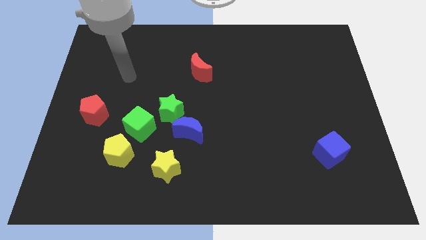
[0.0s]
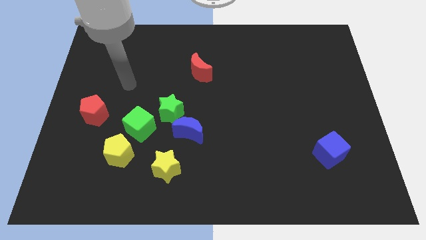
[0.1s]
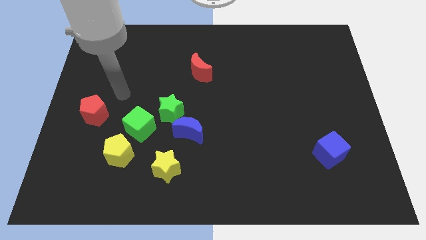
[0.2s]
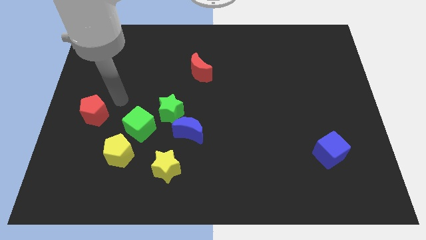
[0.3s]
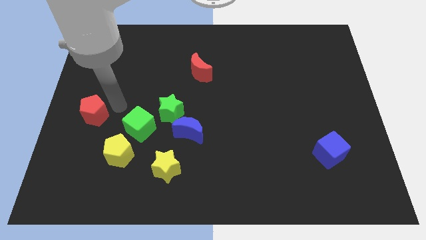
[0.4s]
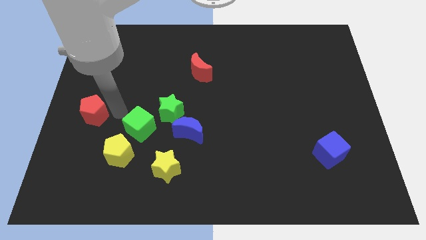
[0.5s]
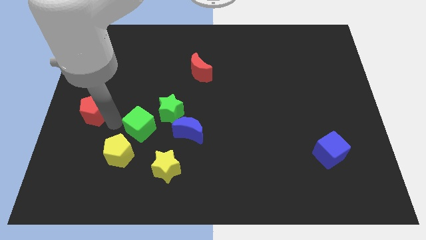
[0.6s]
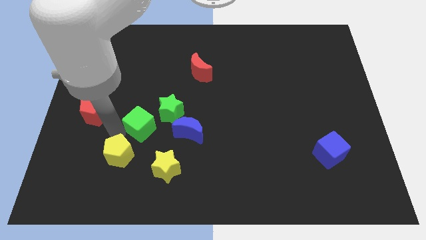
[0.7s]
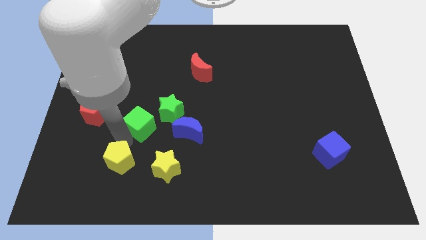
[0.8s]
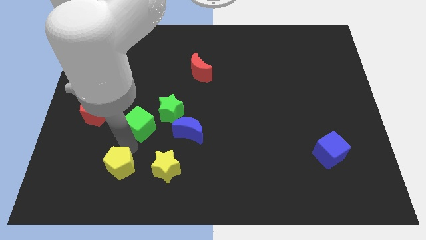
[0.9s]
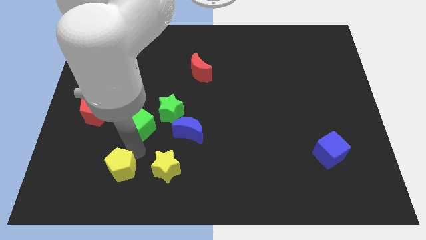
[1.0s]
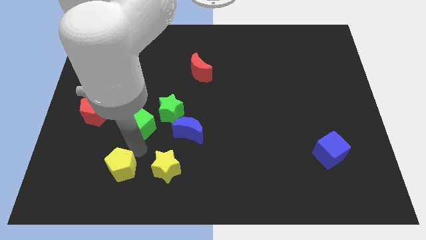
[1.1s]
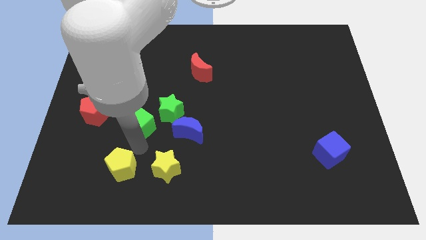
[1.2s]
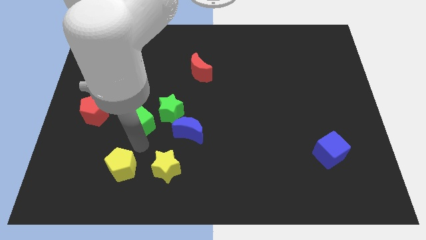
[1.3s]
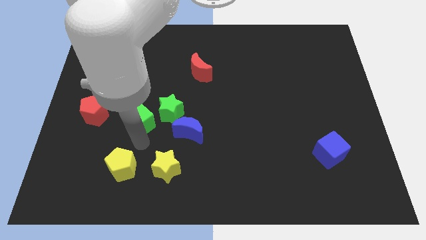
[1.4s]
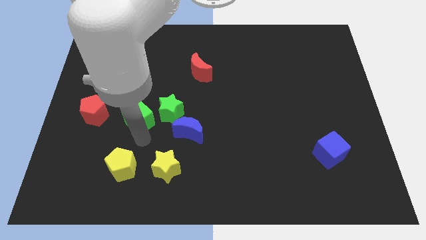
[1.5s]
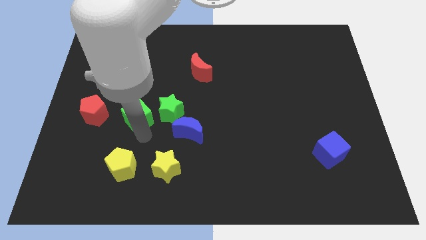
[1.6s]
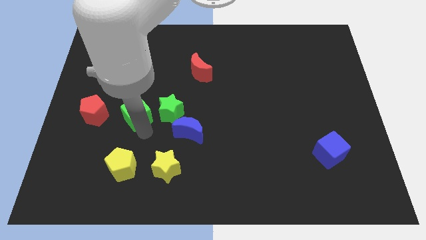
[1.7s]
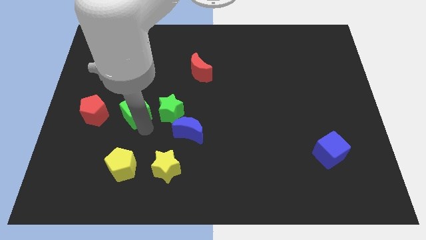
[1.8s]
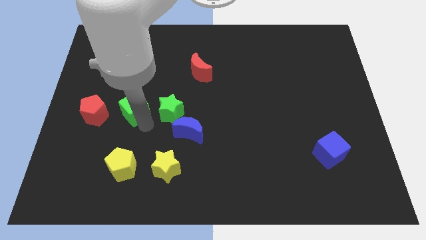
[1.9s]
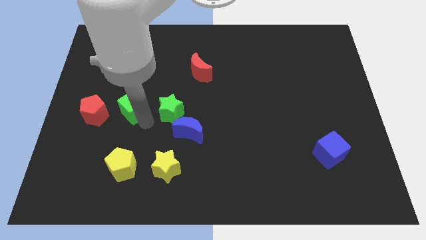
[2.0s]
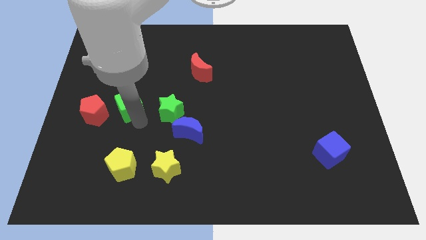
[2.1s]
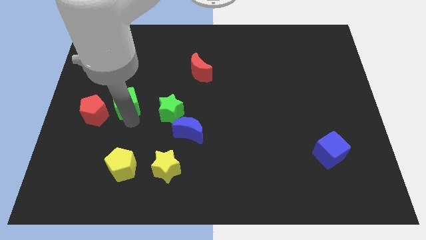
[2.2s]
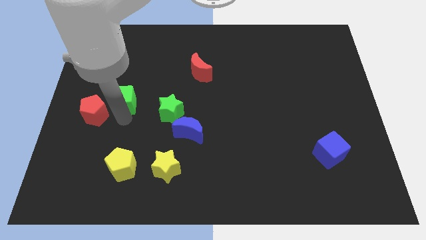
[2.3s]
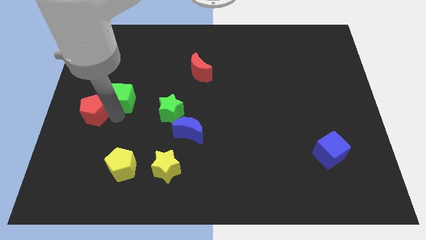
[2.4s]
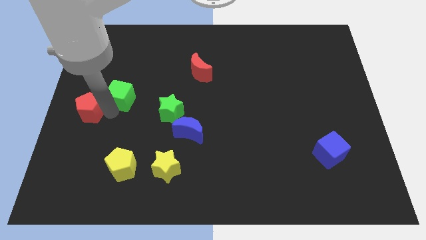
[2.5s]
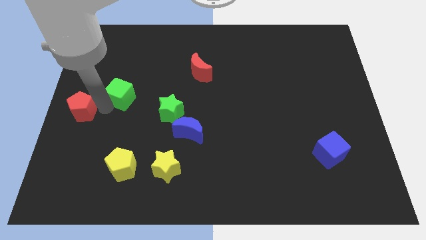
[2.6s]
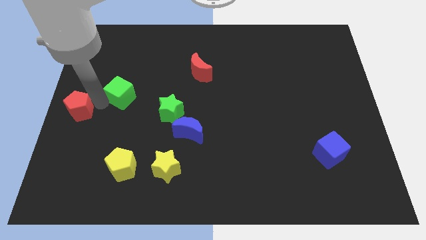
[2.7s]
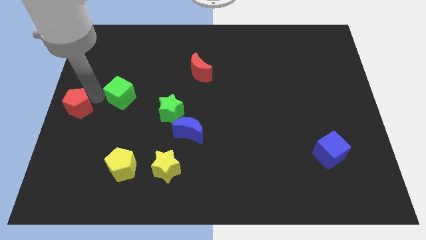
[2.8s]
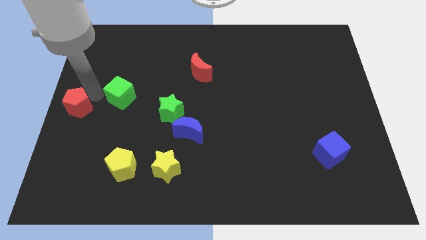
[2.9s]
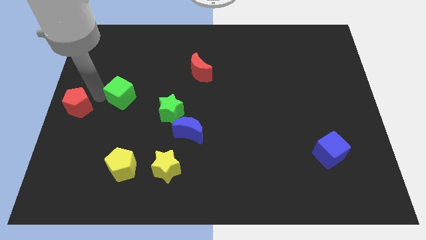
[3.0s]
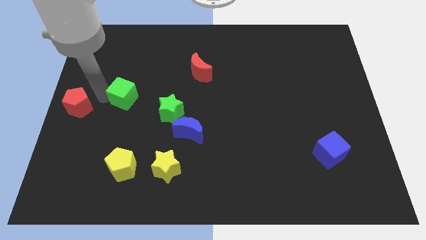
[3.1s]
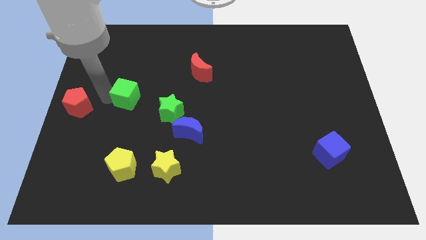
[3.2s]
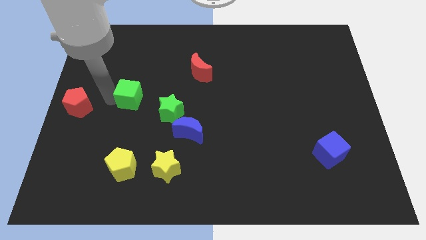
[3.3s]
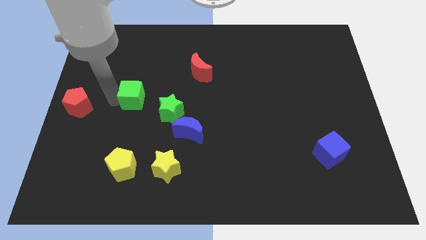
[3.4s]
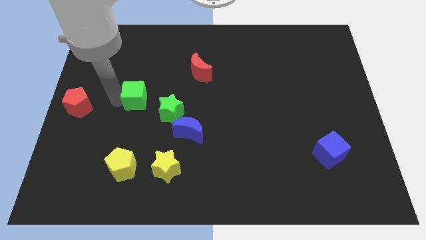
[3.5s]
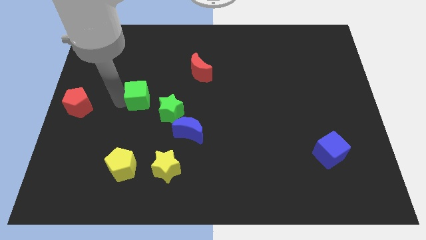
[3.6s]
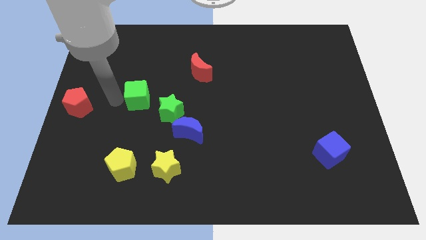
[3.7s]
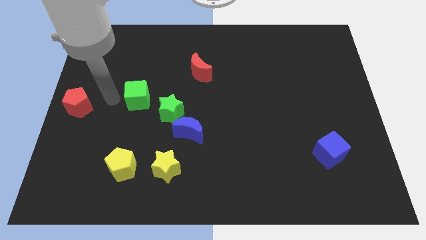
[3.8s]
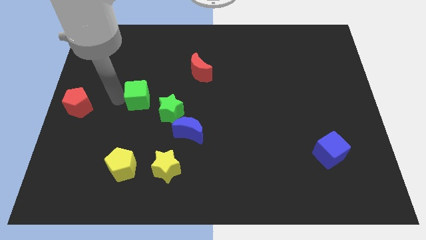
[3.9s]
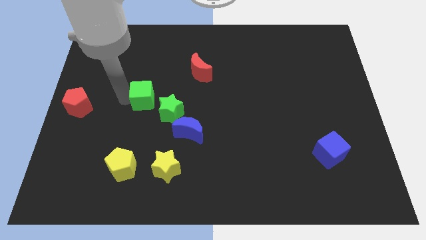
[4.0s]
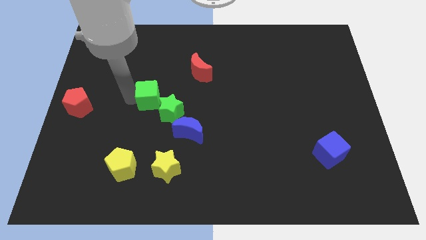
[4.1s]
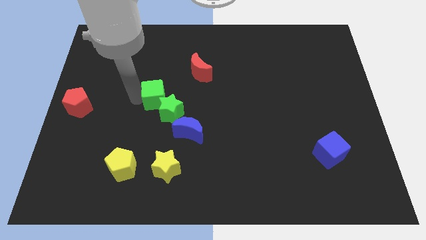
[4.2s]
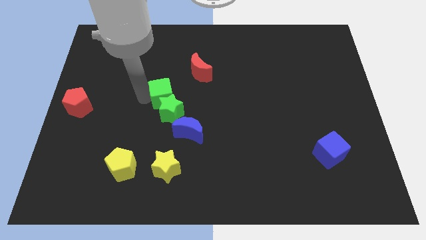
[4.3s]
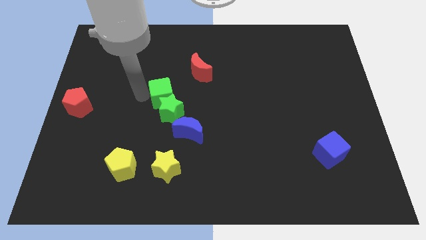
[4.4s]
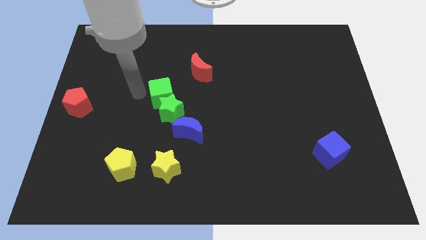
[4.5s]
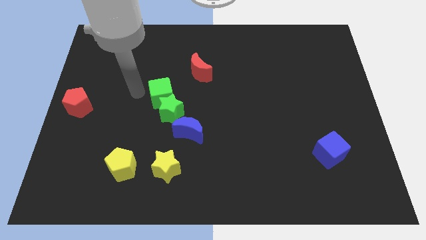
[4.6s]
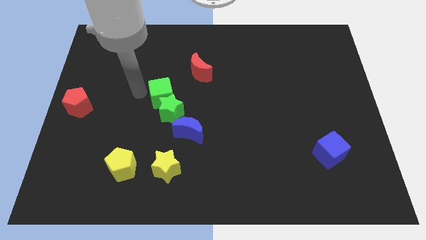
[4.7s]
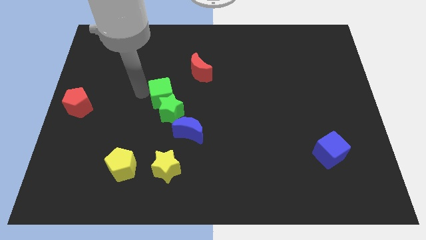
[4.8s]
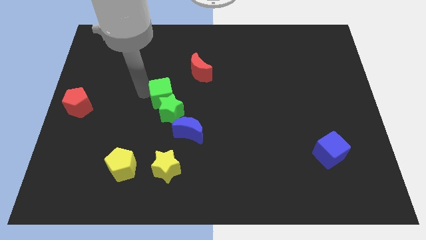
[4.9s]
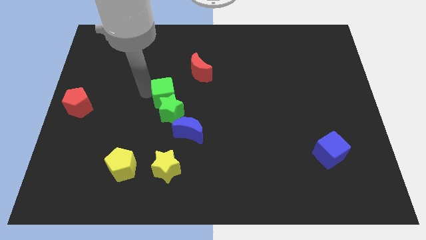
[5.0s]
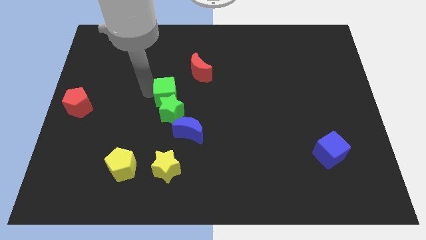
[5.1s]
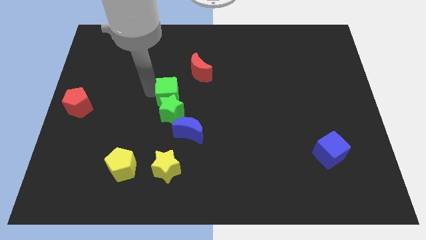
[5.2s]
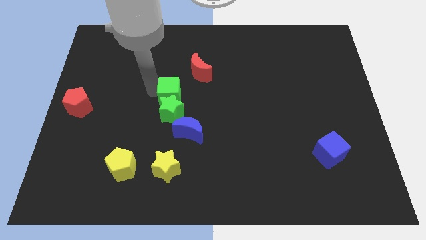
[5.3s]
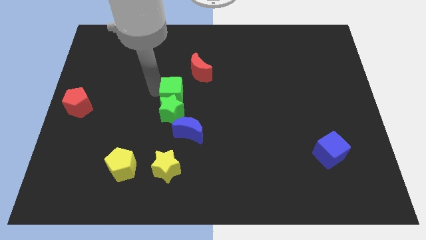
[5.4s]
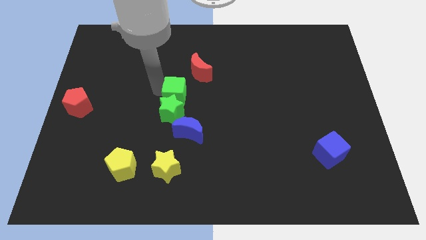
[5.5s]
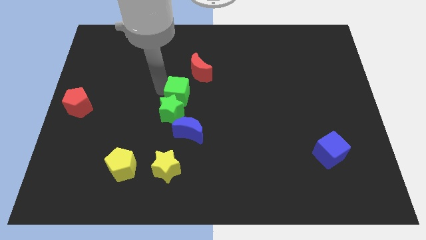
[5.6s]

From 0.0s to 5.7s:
push the green cube below the red moon

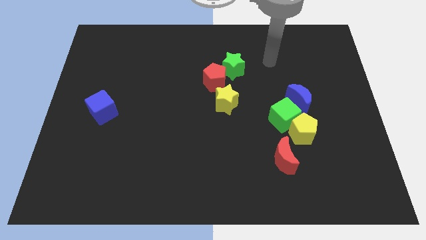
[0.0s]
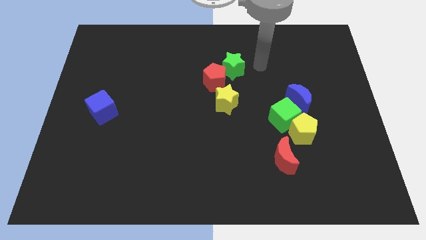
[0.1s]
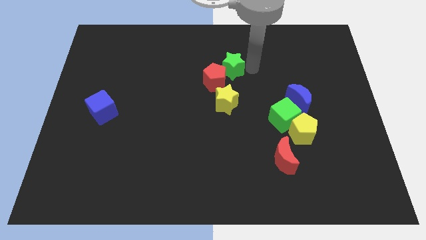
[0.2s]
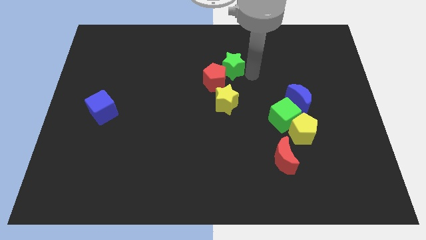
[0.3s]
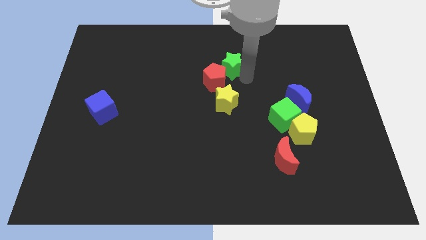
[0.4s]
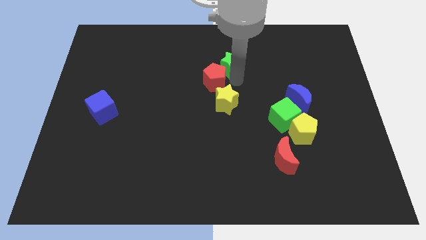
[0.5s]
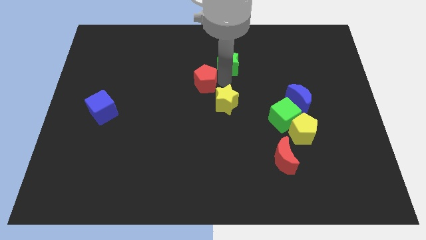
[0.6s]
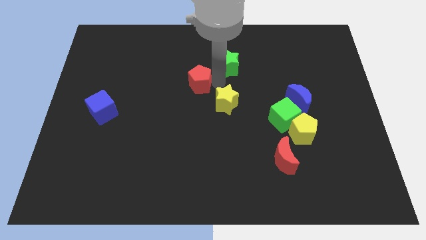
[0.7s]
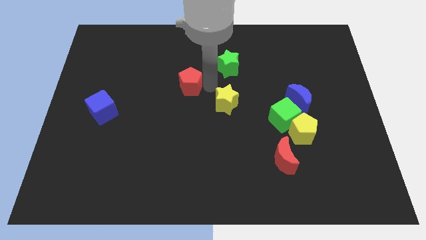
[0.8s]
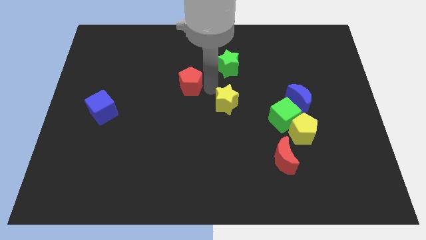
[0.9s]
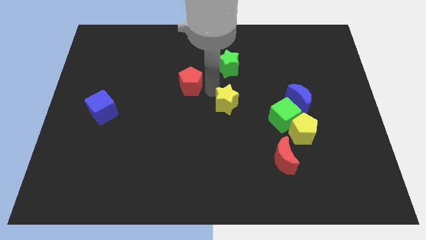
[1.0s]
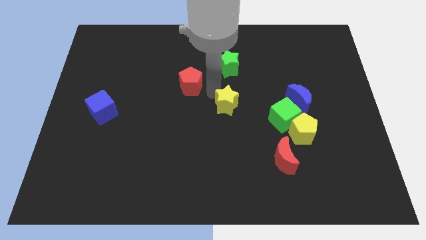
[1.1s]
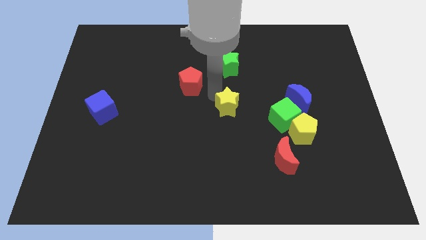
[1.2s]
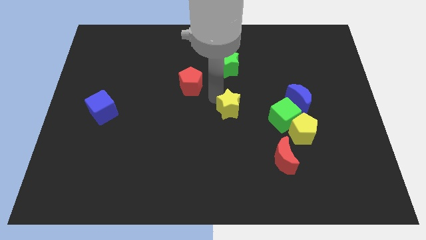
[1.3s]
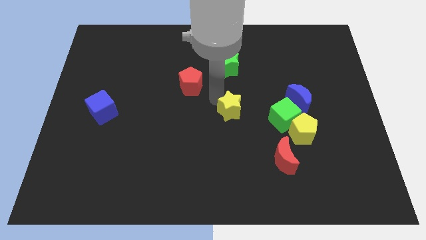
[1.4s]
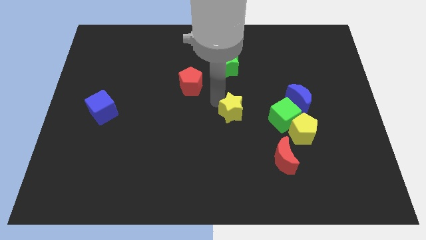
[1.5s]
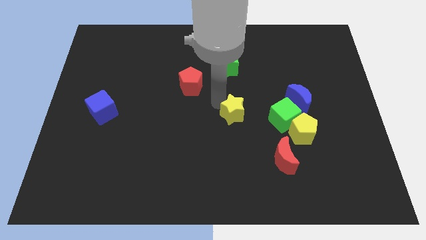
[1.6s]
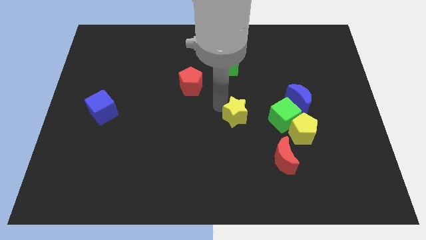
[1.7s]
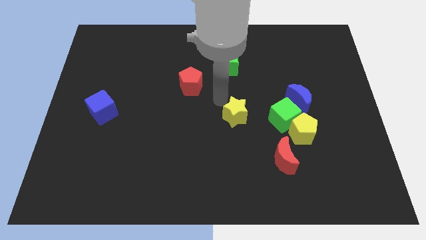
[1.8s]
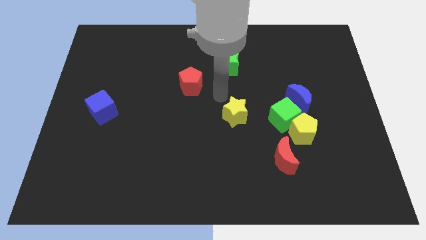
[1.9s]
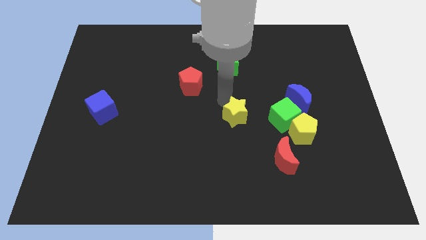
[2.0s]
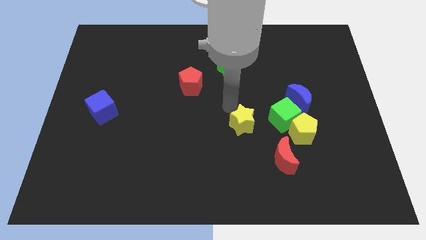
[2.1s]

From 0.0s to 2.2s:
push the yellow star to the top left of the red moon
